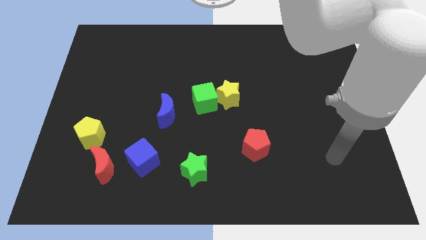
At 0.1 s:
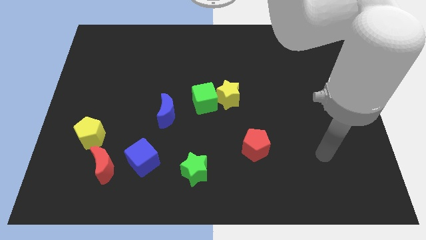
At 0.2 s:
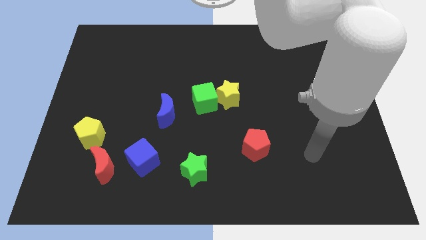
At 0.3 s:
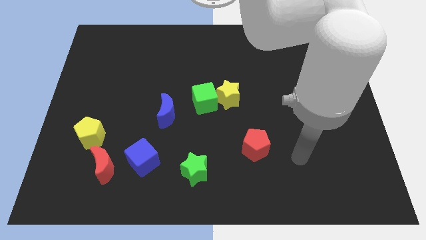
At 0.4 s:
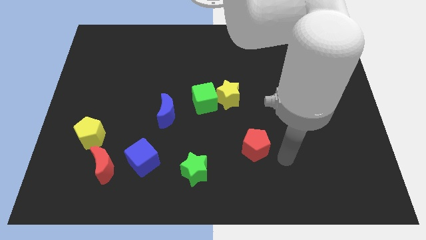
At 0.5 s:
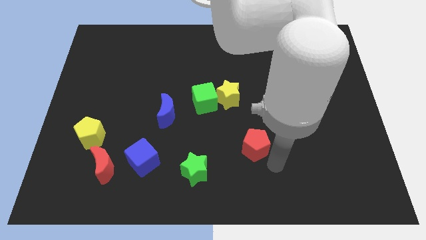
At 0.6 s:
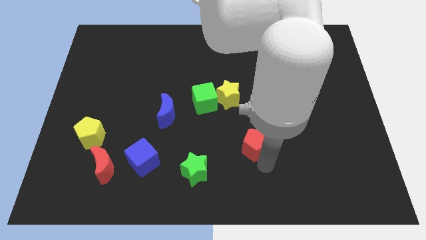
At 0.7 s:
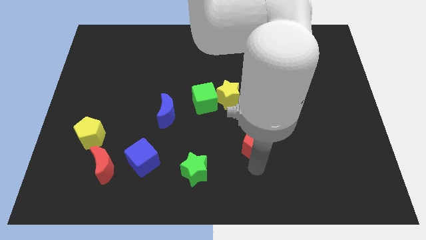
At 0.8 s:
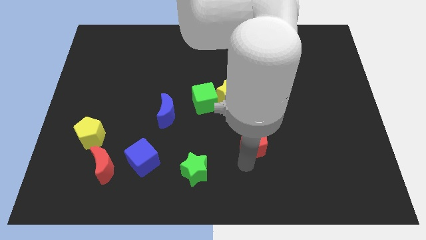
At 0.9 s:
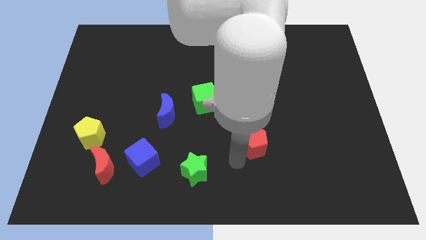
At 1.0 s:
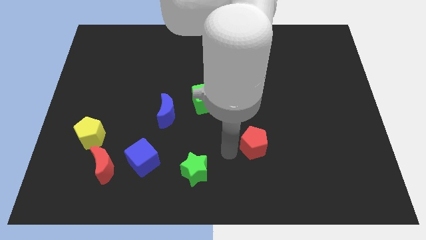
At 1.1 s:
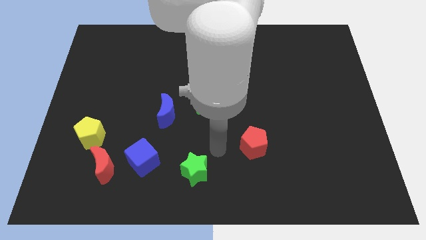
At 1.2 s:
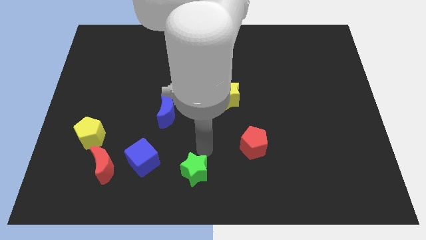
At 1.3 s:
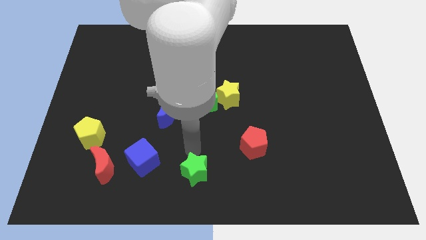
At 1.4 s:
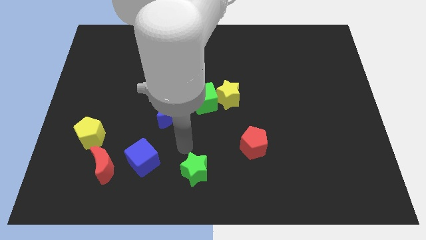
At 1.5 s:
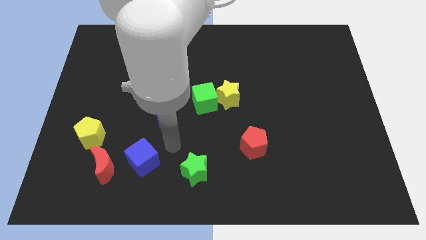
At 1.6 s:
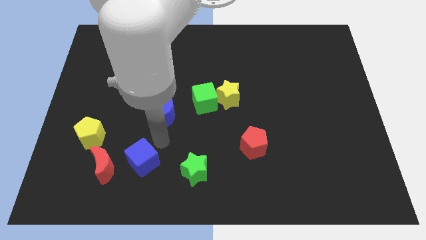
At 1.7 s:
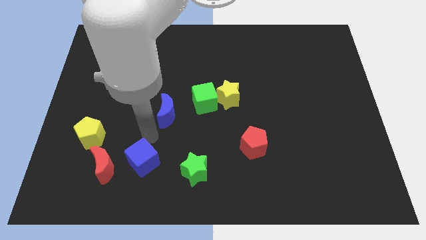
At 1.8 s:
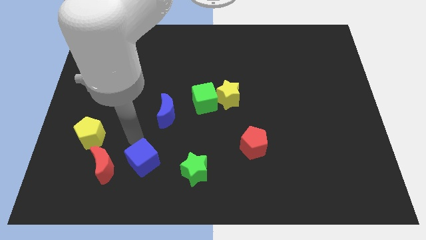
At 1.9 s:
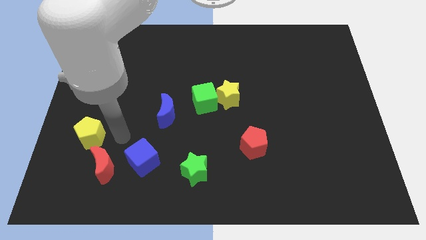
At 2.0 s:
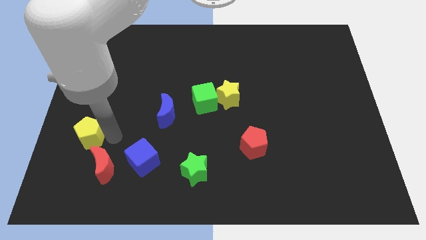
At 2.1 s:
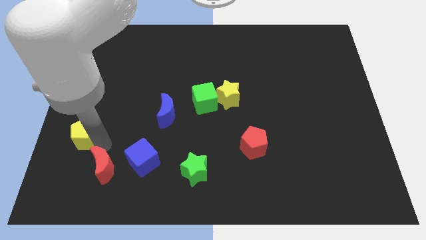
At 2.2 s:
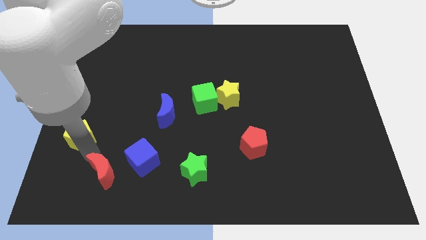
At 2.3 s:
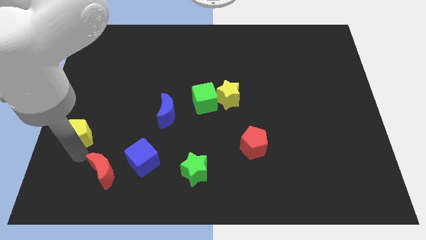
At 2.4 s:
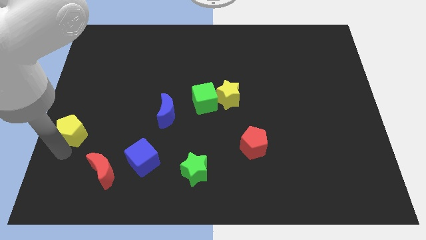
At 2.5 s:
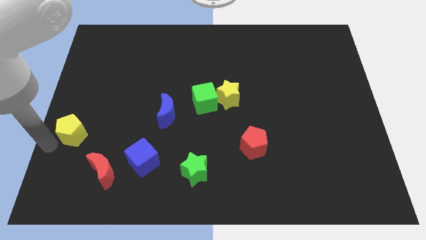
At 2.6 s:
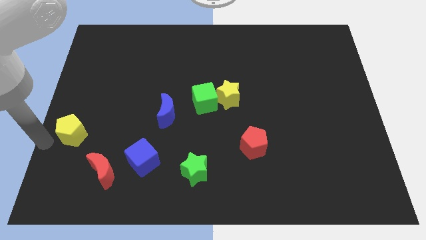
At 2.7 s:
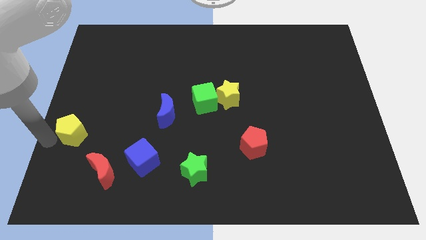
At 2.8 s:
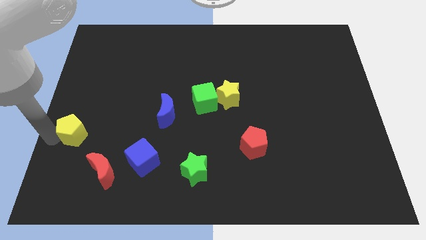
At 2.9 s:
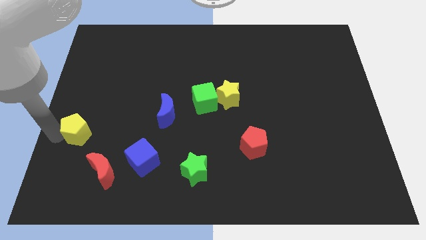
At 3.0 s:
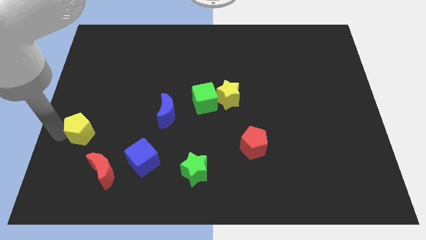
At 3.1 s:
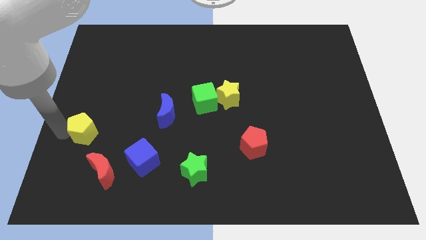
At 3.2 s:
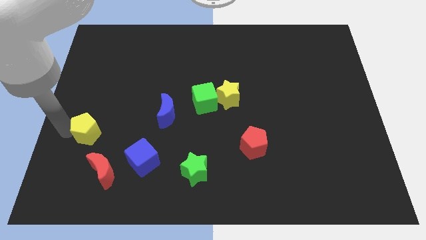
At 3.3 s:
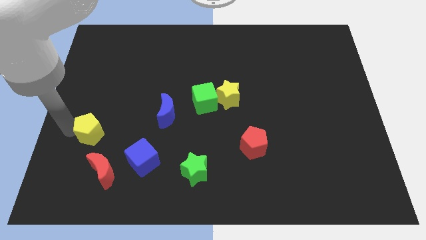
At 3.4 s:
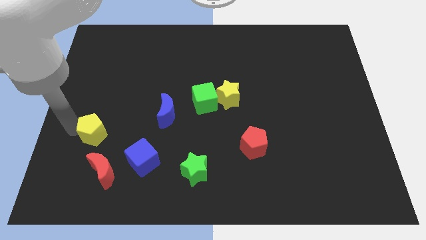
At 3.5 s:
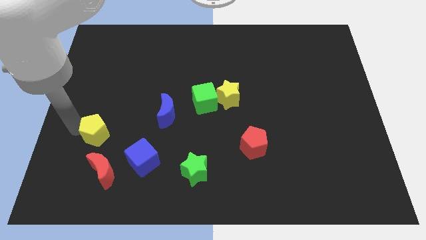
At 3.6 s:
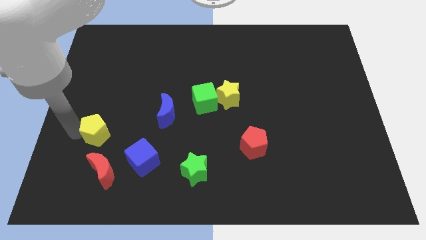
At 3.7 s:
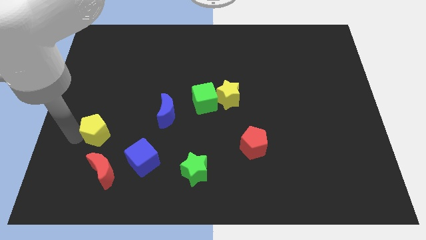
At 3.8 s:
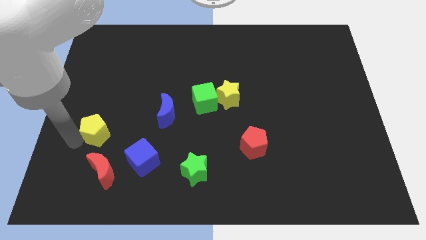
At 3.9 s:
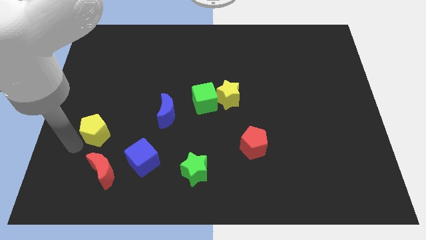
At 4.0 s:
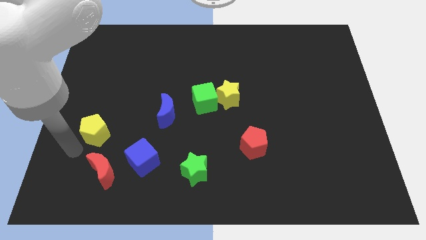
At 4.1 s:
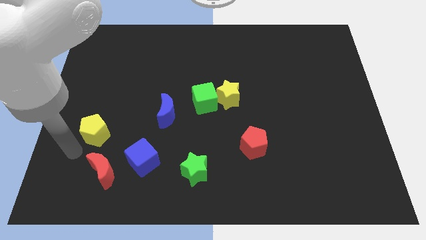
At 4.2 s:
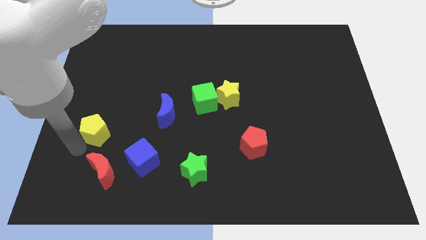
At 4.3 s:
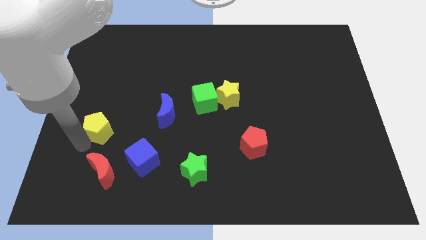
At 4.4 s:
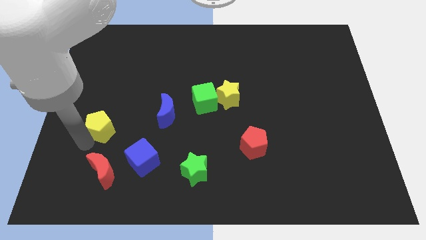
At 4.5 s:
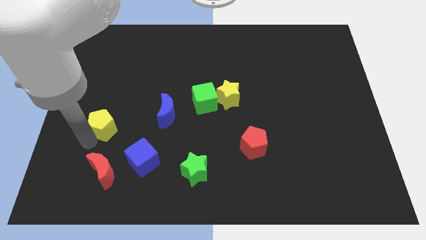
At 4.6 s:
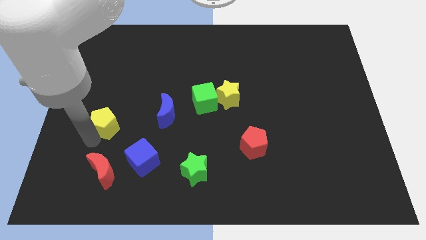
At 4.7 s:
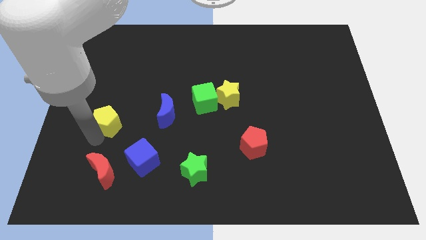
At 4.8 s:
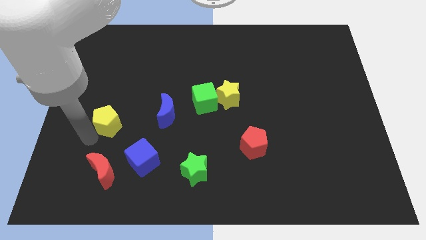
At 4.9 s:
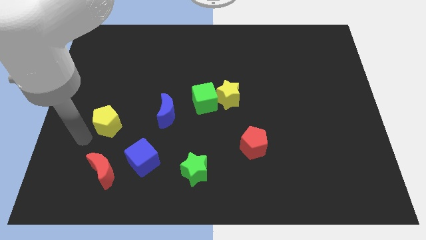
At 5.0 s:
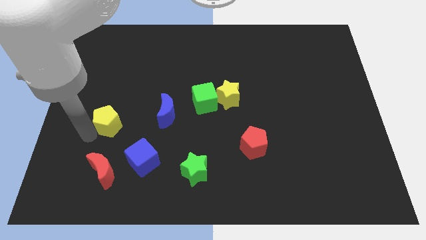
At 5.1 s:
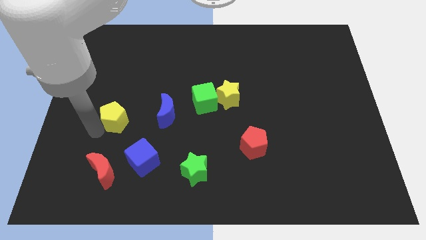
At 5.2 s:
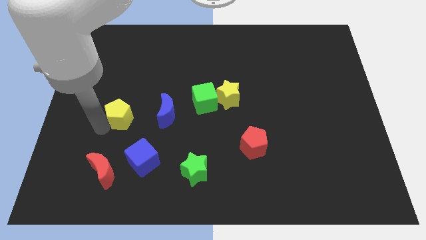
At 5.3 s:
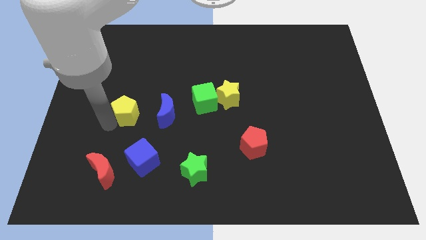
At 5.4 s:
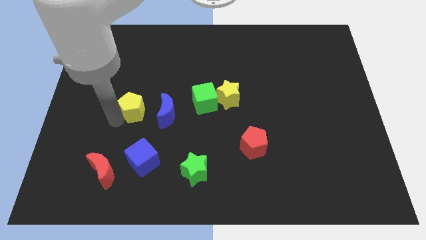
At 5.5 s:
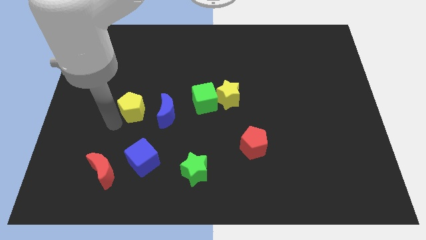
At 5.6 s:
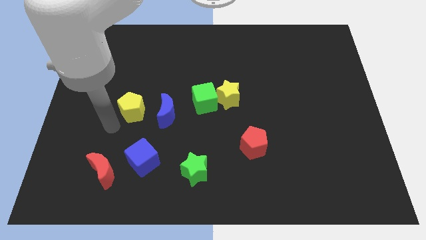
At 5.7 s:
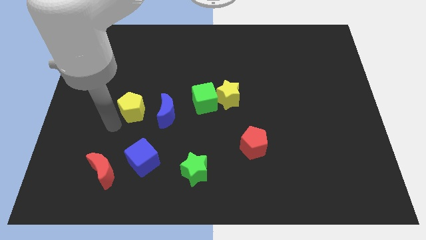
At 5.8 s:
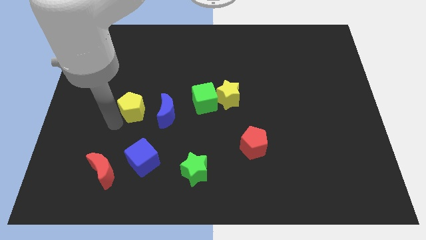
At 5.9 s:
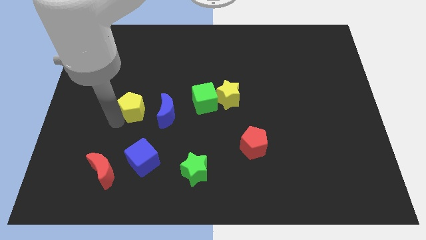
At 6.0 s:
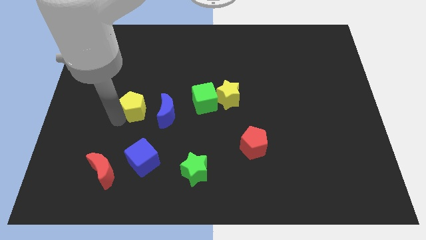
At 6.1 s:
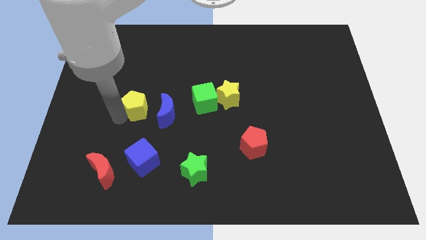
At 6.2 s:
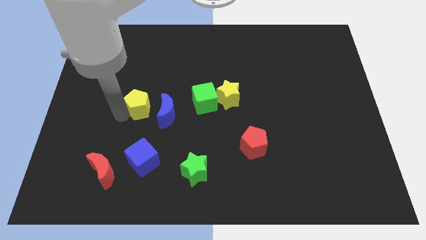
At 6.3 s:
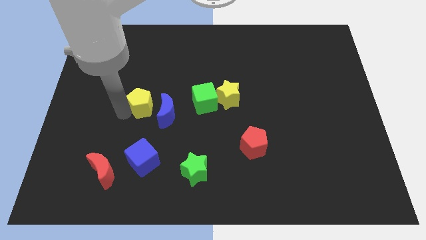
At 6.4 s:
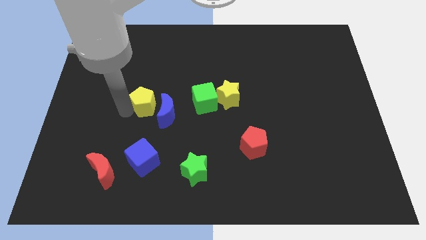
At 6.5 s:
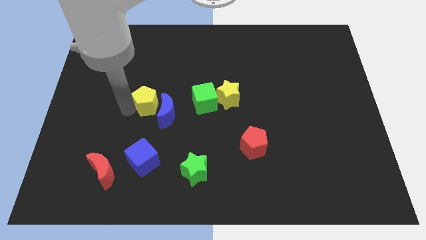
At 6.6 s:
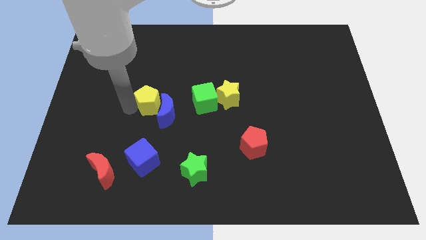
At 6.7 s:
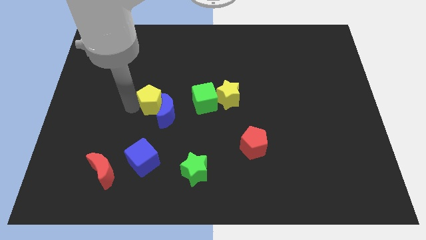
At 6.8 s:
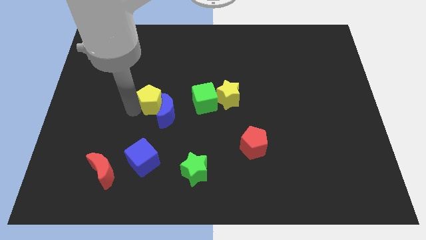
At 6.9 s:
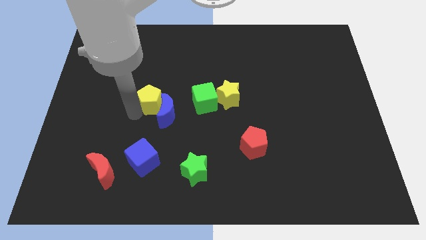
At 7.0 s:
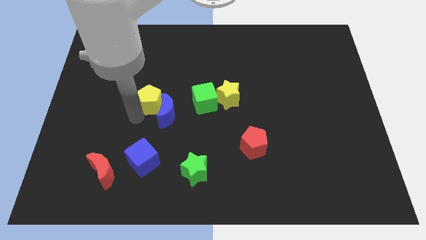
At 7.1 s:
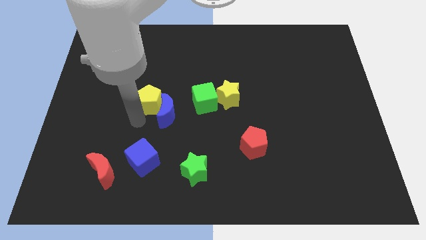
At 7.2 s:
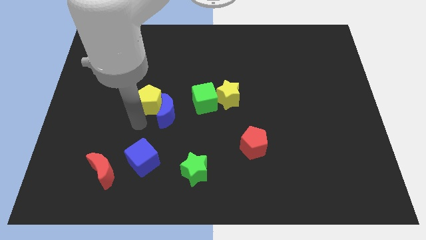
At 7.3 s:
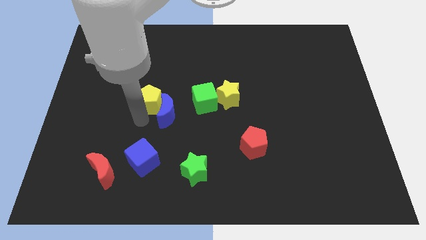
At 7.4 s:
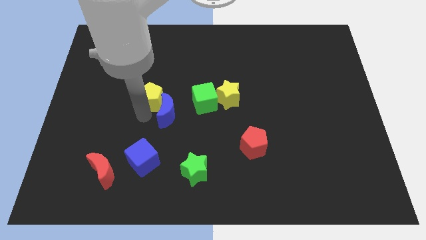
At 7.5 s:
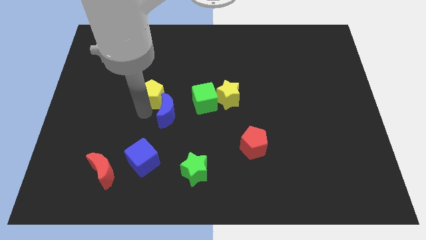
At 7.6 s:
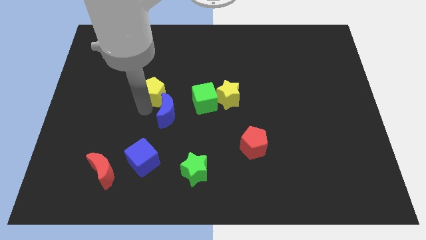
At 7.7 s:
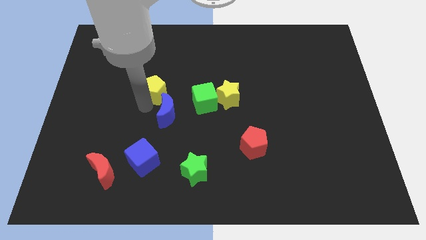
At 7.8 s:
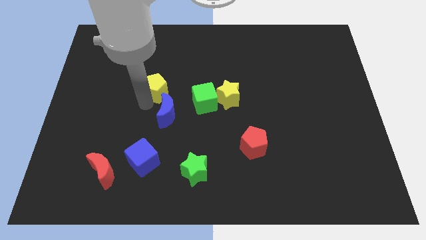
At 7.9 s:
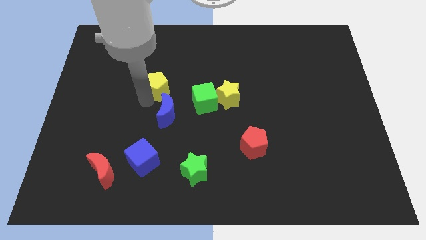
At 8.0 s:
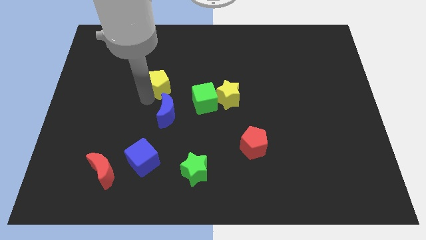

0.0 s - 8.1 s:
move the yellow pentagon up and right diagonally
